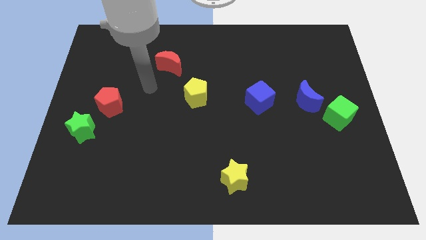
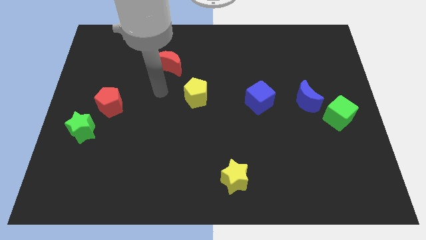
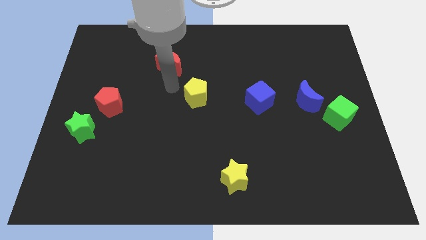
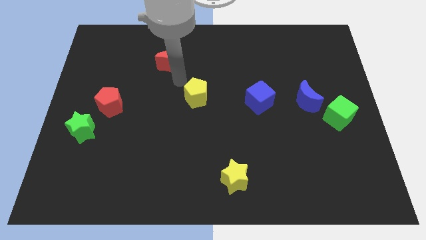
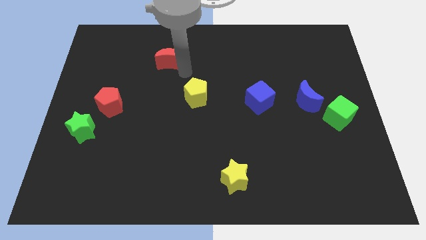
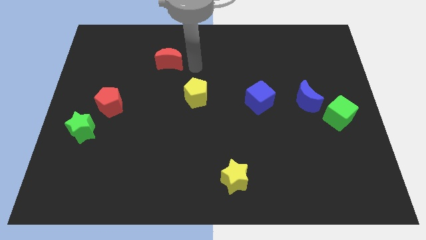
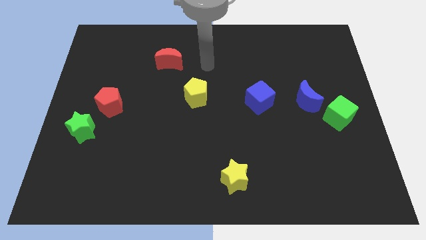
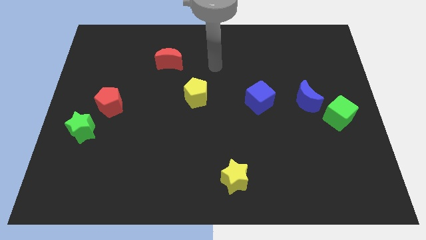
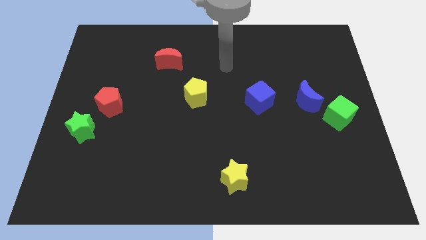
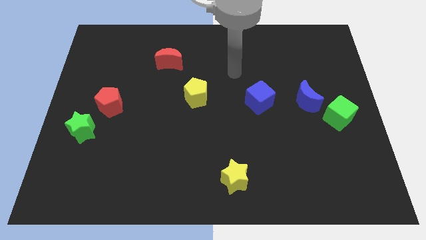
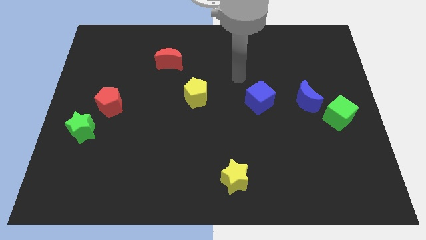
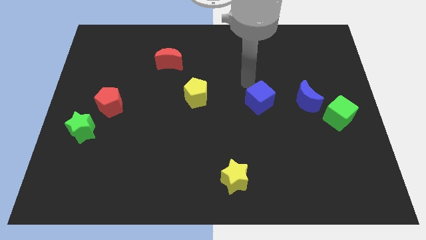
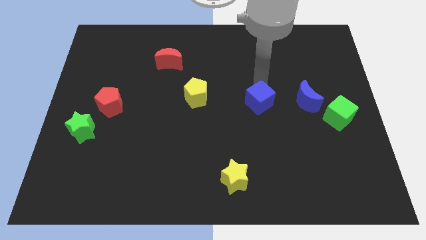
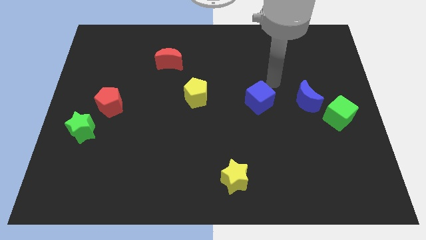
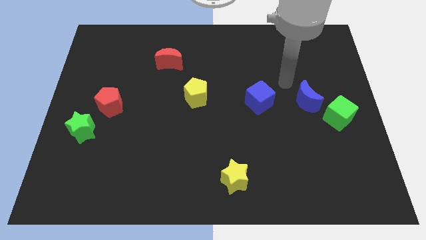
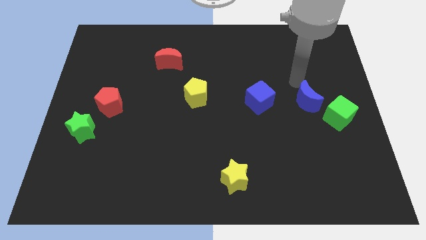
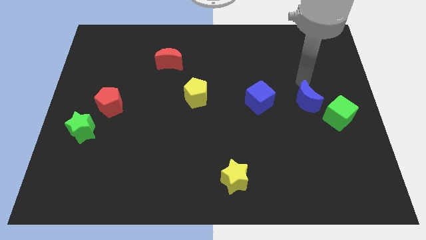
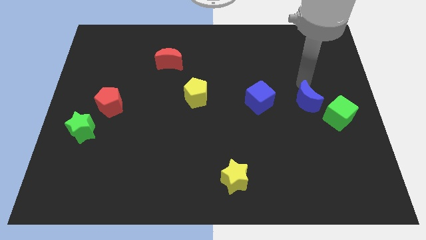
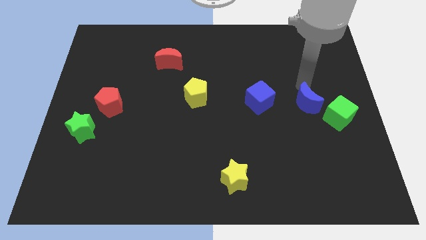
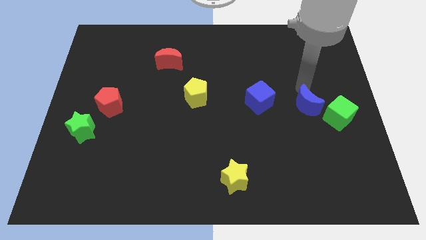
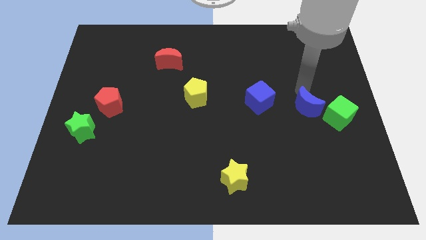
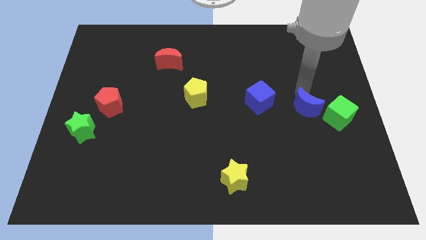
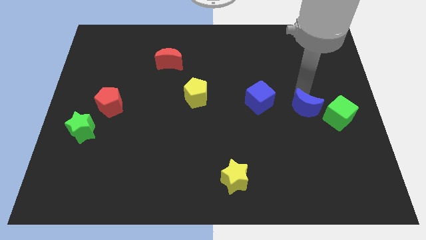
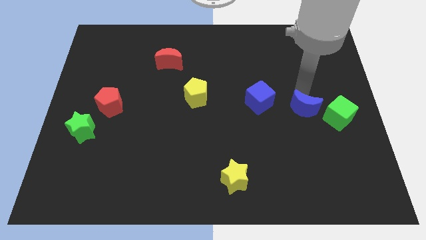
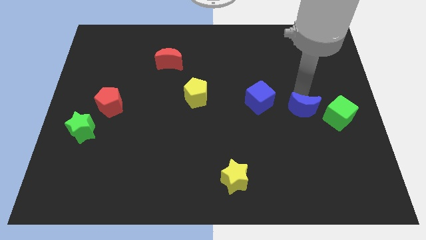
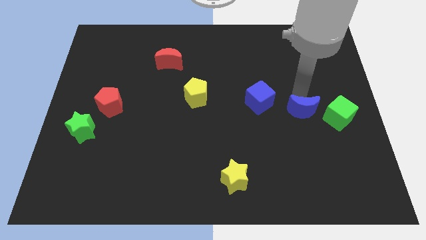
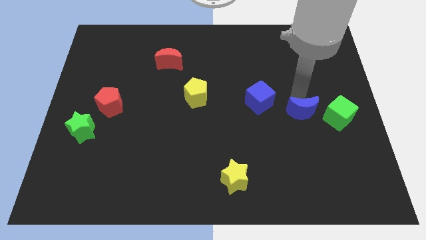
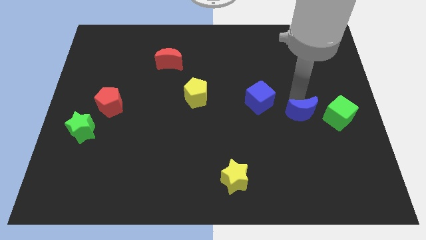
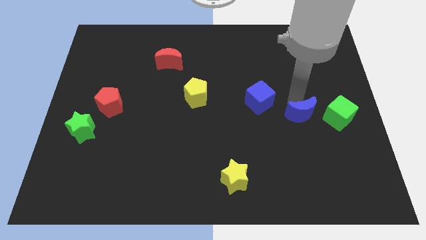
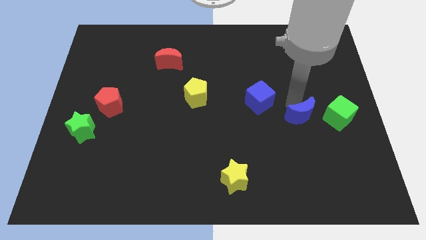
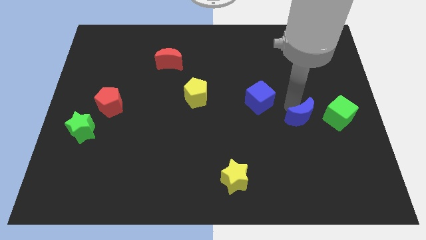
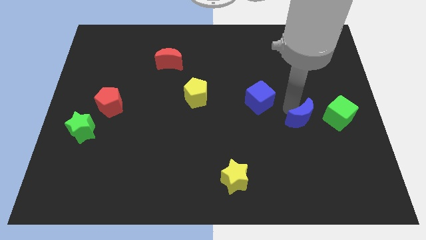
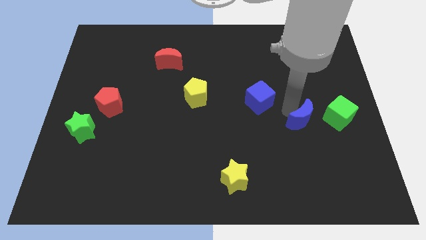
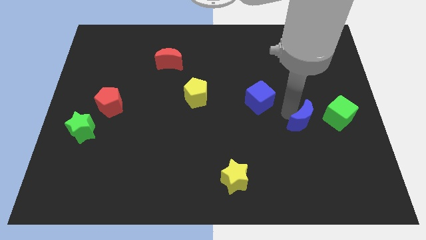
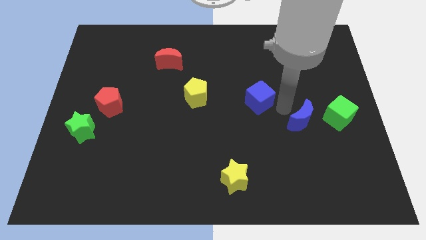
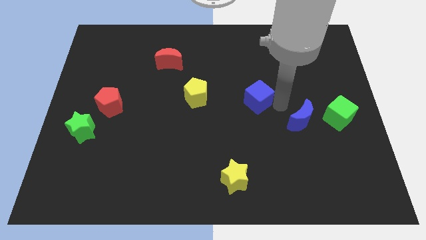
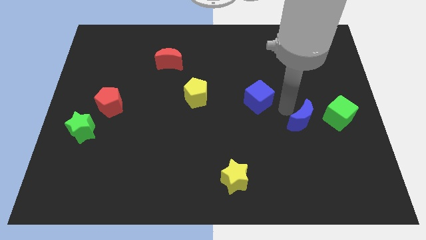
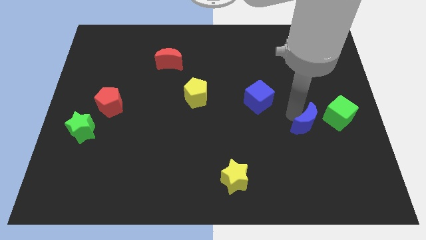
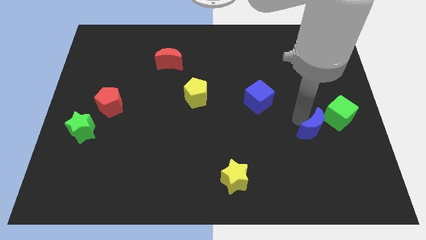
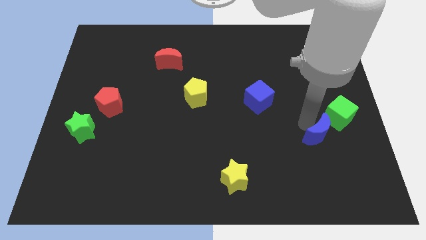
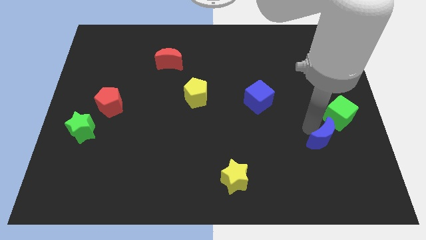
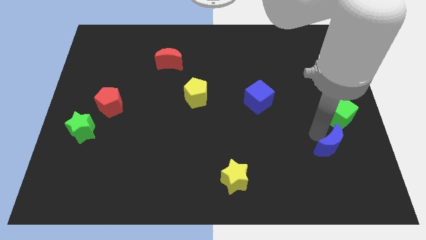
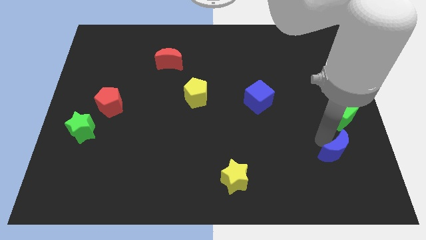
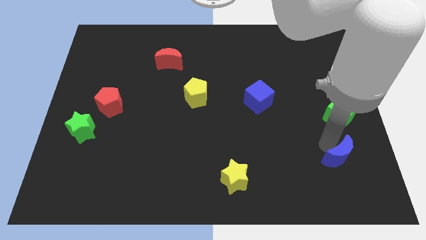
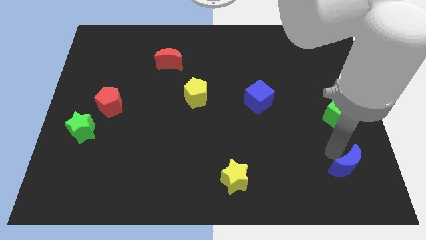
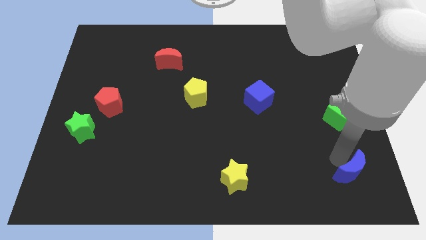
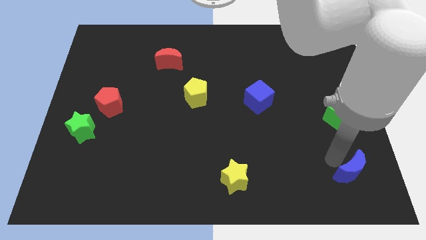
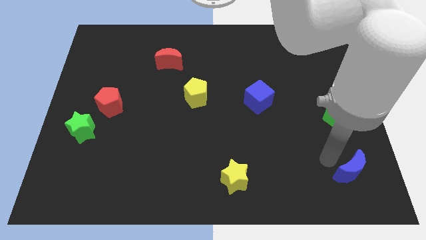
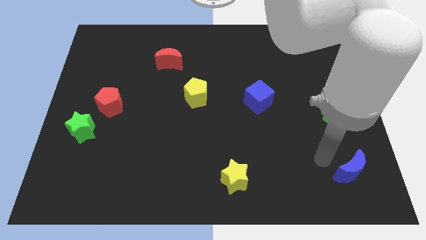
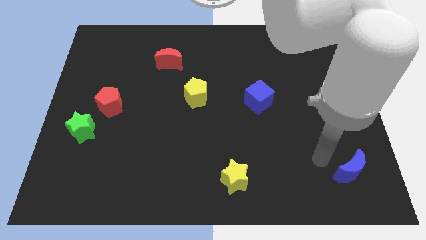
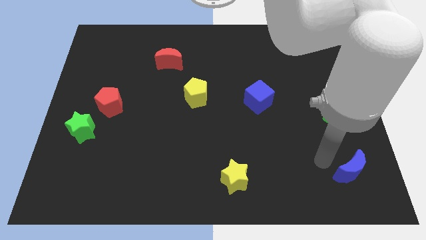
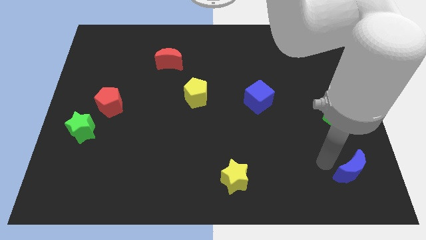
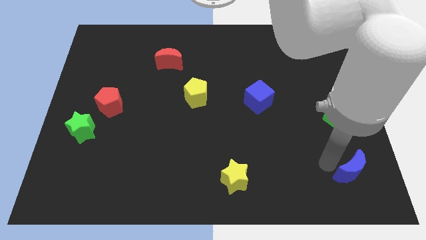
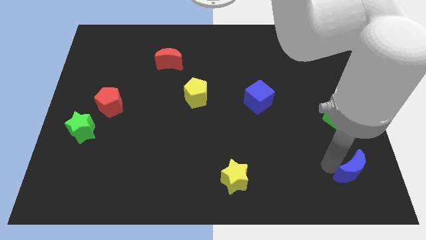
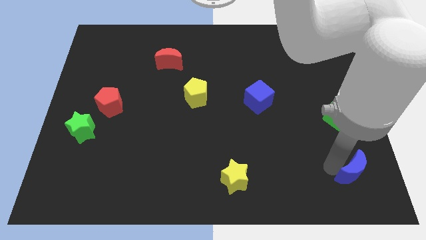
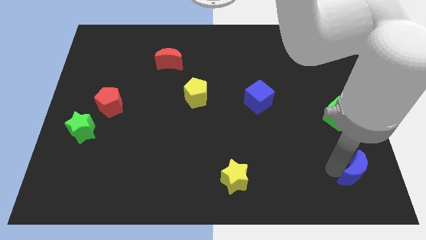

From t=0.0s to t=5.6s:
move the blue moon to the bottom right of the board

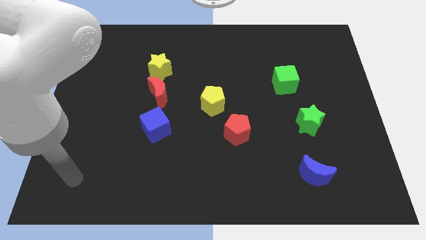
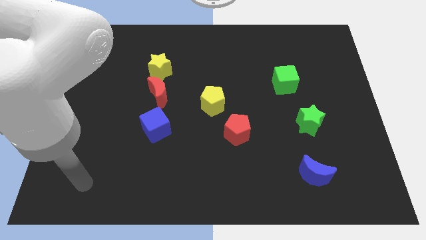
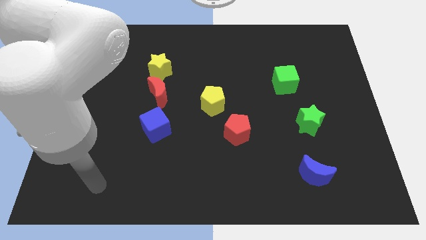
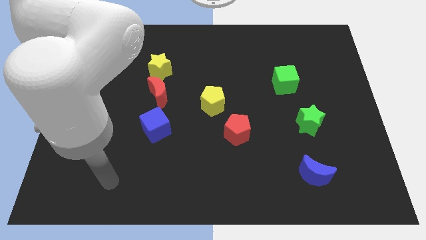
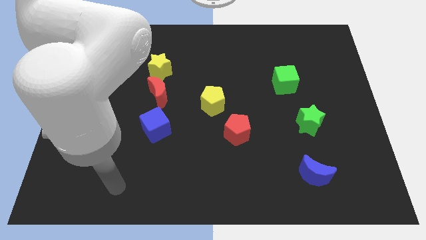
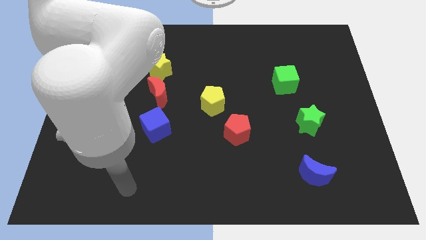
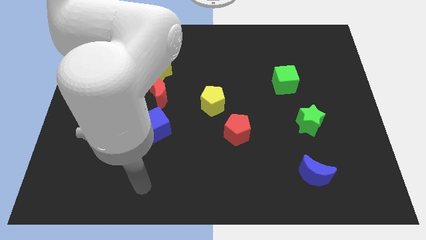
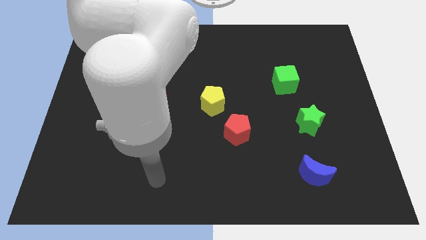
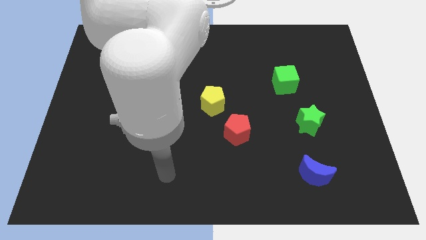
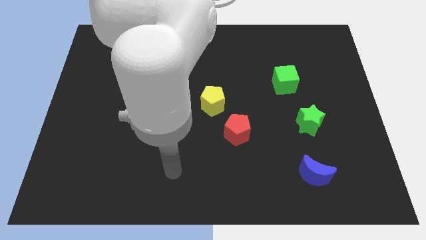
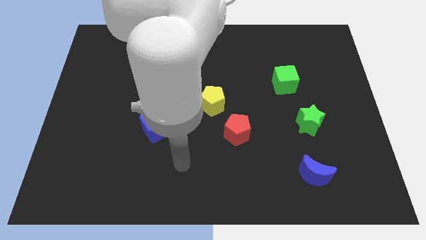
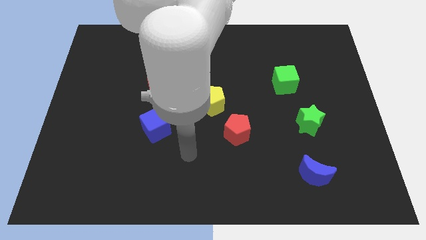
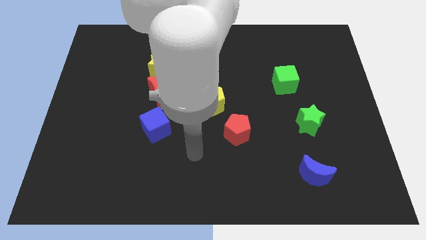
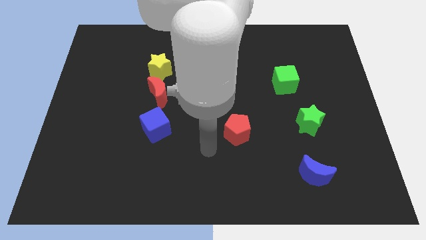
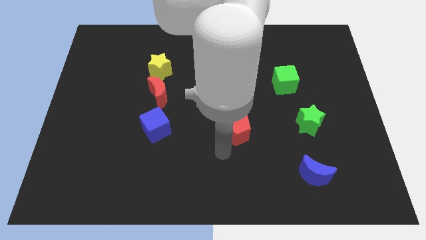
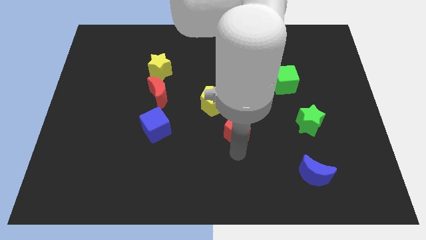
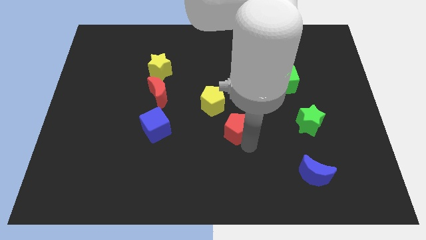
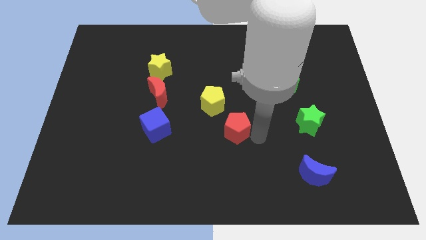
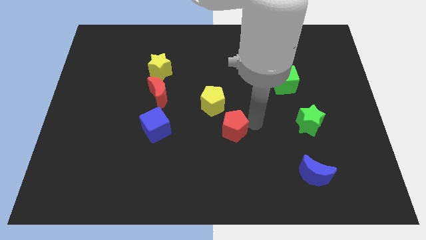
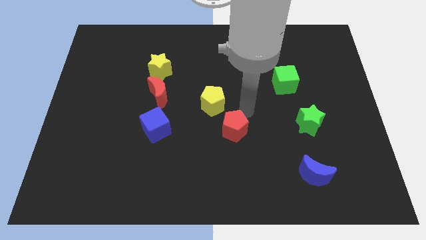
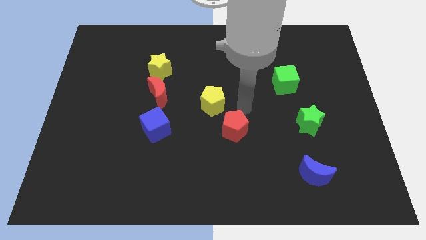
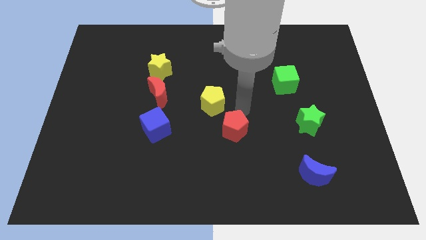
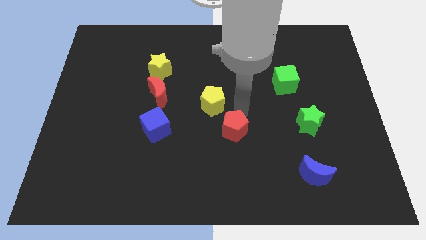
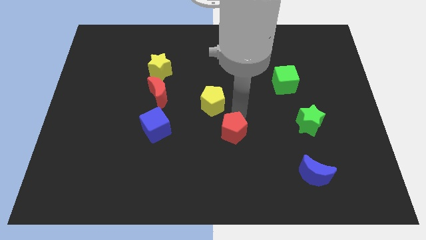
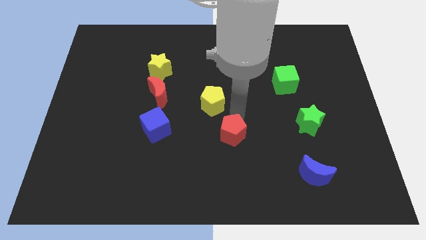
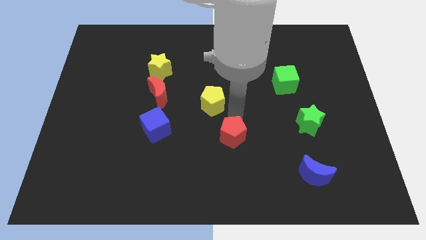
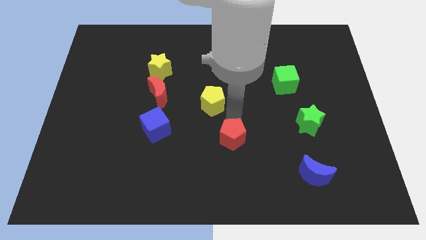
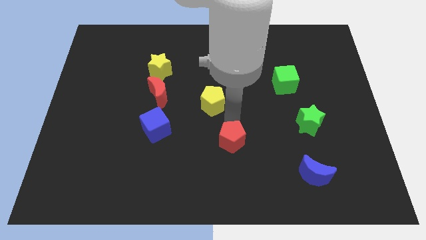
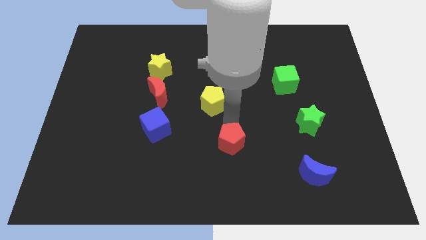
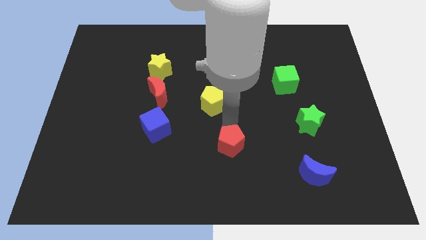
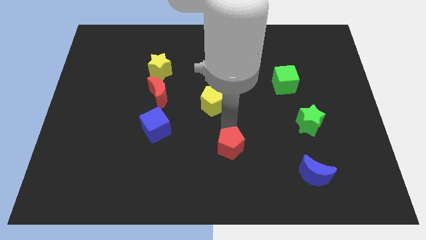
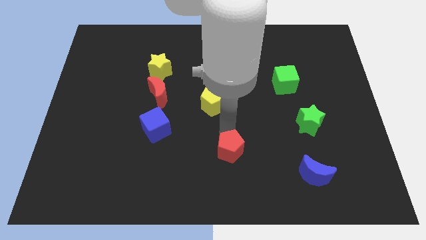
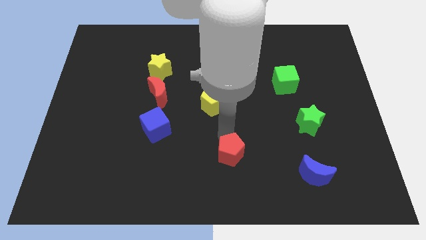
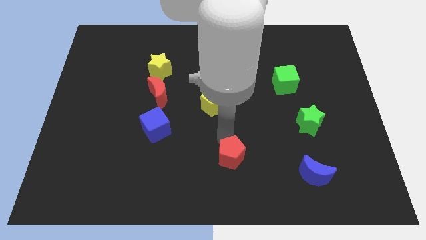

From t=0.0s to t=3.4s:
slide the red pentagon to the bottom
